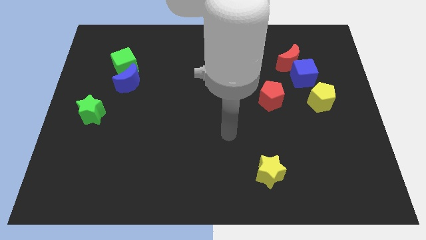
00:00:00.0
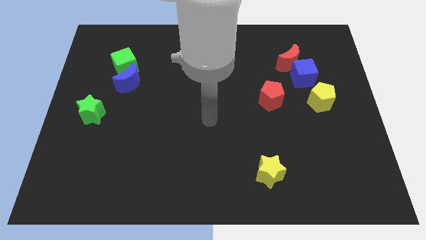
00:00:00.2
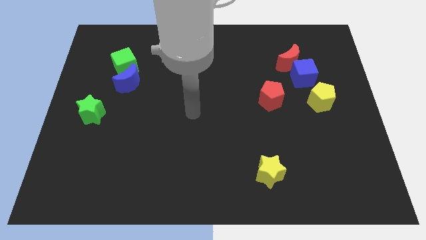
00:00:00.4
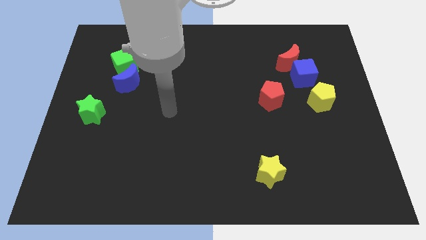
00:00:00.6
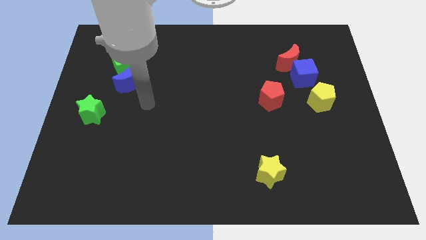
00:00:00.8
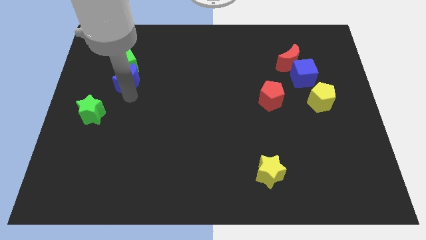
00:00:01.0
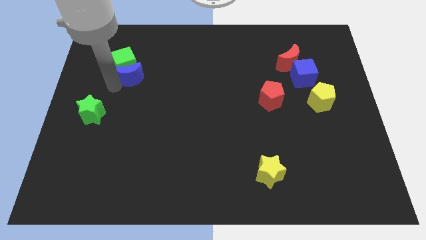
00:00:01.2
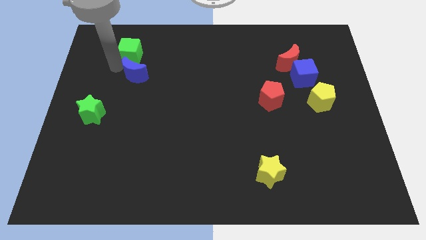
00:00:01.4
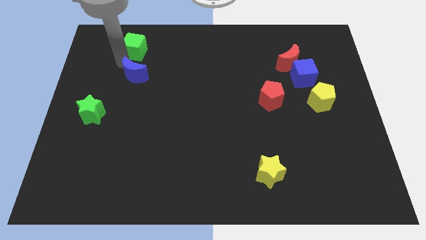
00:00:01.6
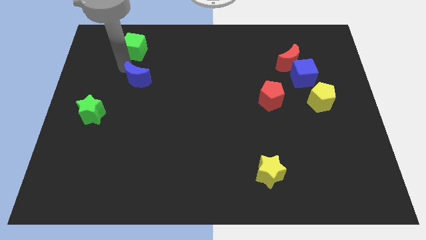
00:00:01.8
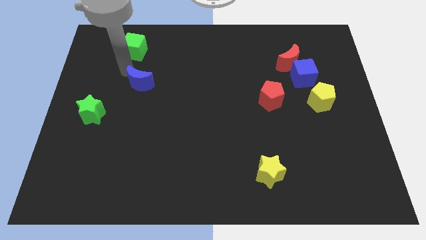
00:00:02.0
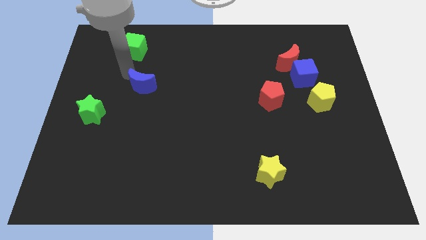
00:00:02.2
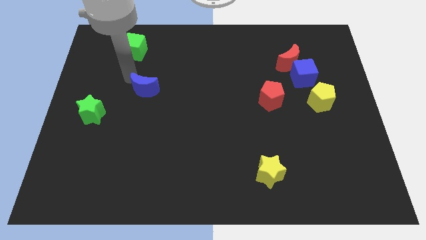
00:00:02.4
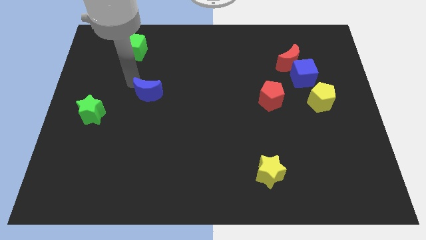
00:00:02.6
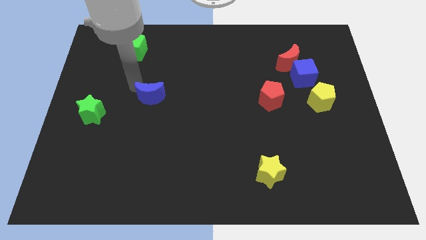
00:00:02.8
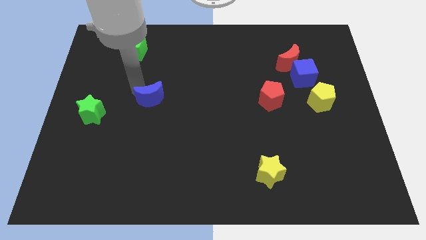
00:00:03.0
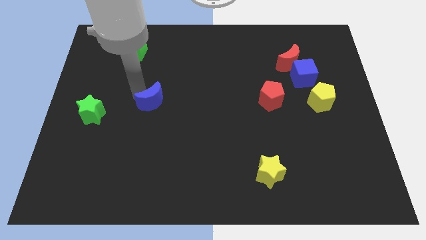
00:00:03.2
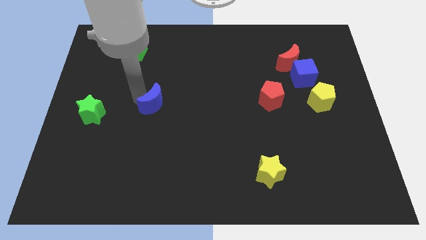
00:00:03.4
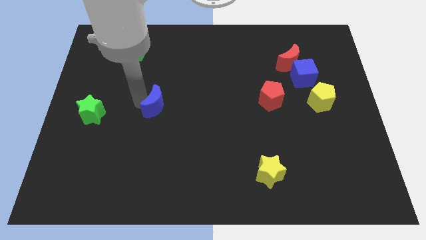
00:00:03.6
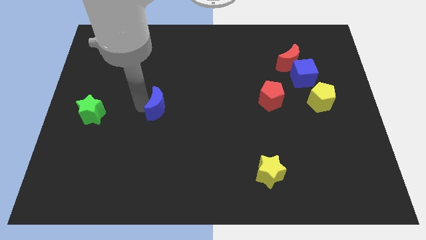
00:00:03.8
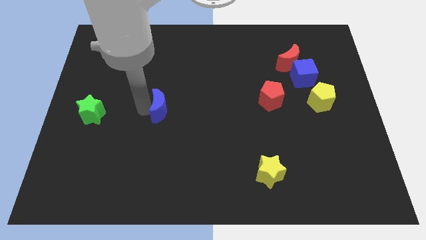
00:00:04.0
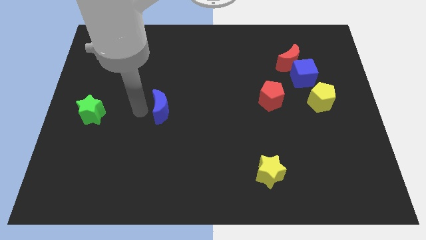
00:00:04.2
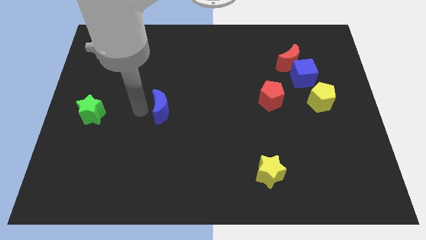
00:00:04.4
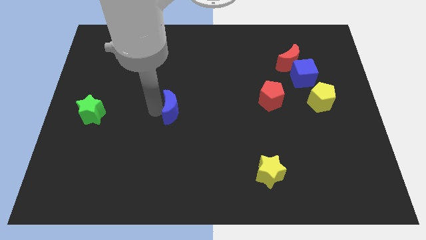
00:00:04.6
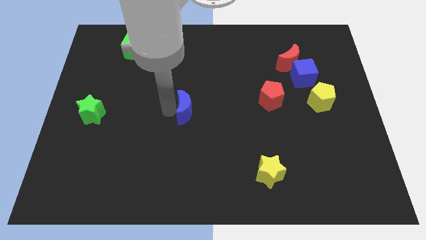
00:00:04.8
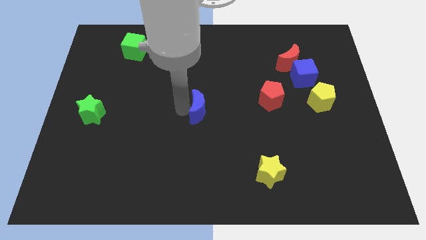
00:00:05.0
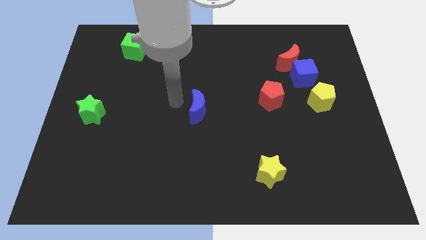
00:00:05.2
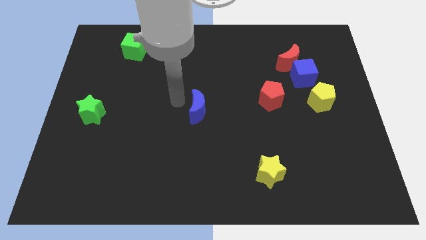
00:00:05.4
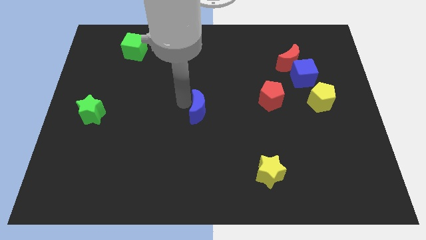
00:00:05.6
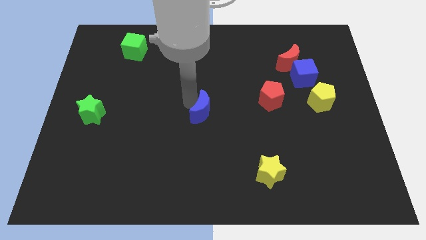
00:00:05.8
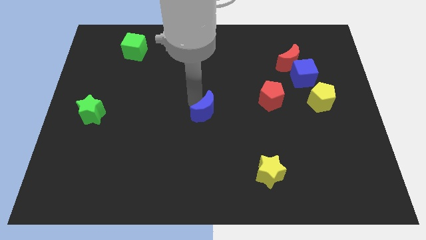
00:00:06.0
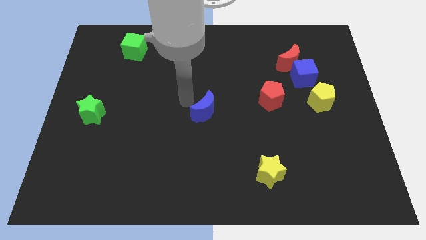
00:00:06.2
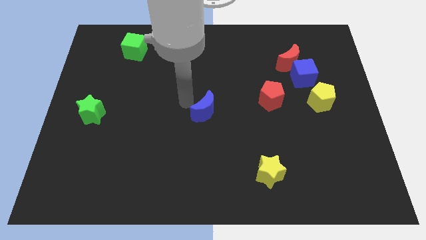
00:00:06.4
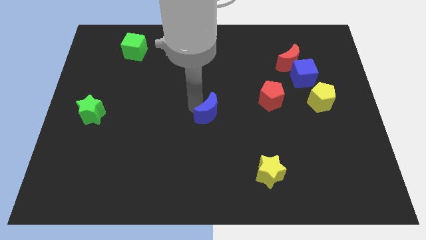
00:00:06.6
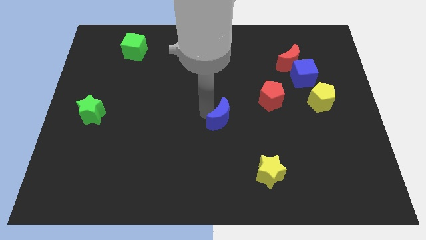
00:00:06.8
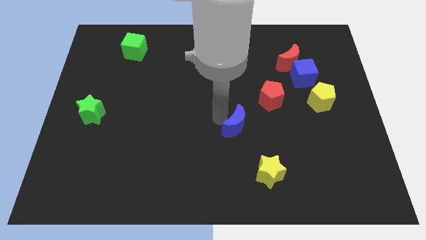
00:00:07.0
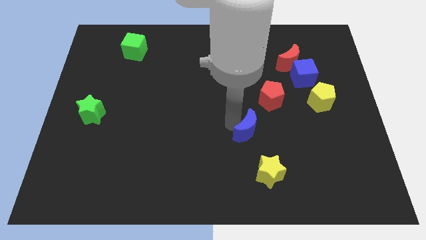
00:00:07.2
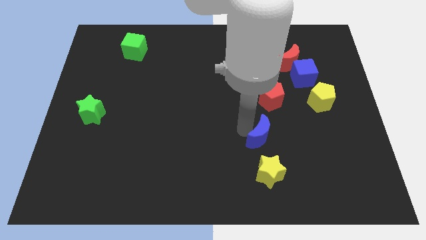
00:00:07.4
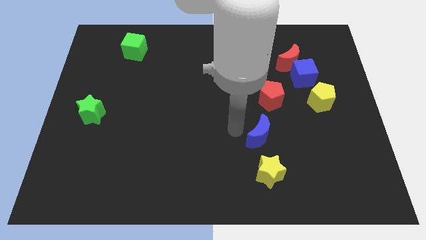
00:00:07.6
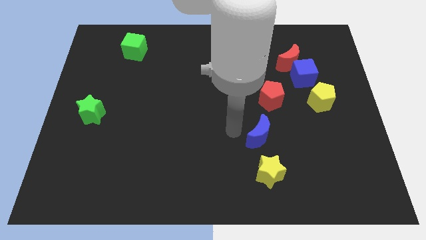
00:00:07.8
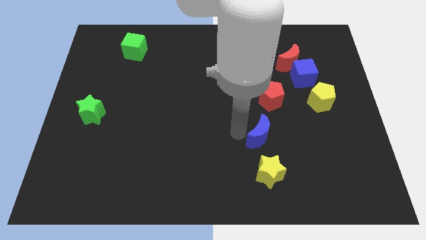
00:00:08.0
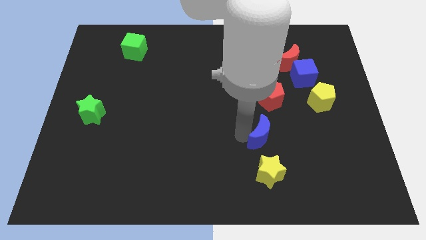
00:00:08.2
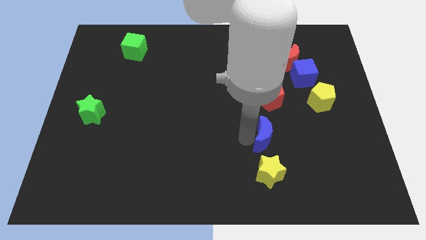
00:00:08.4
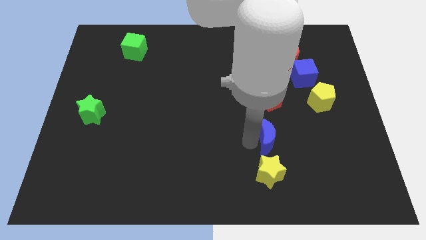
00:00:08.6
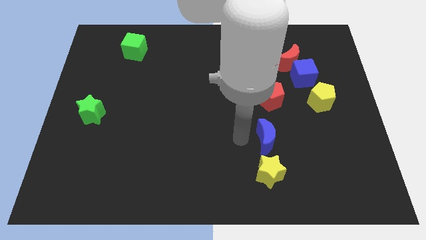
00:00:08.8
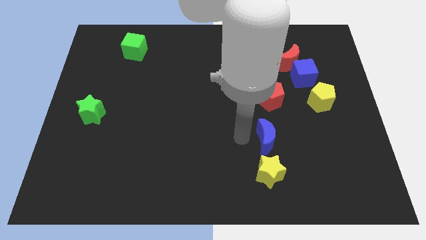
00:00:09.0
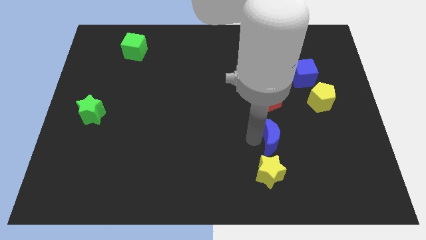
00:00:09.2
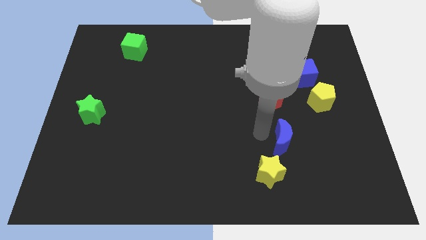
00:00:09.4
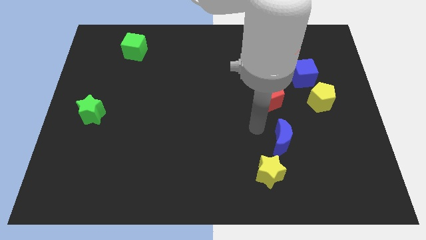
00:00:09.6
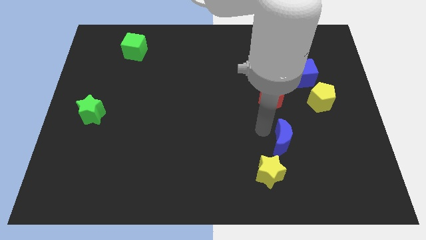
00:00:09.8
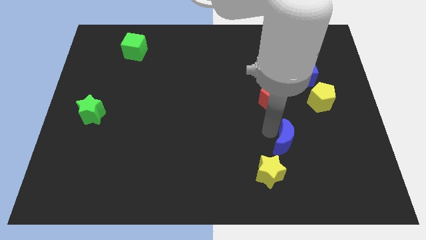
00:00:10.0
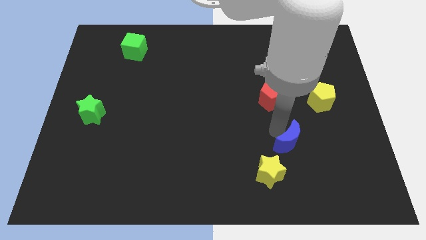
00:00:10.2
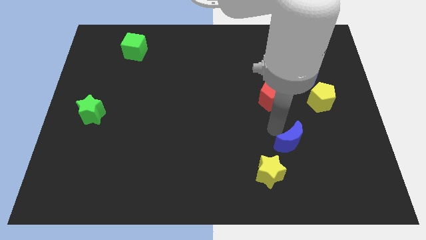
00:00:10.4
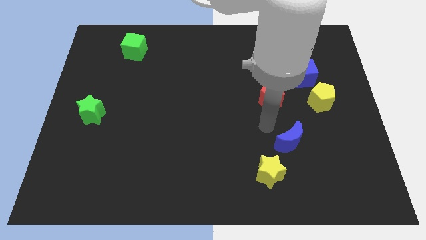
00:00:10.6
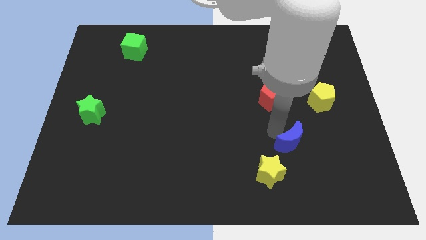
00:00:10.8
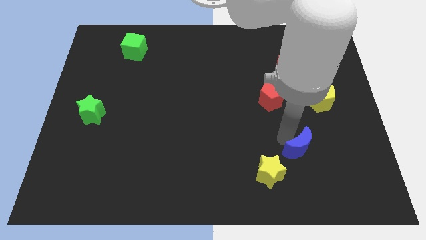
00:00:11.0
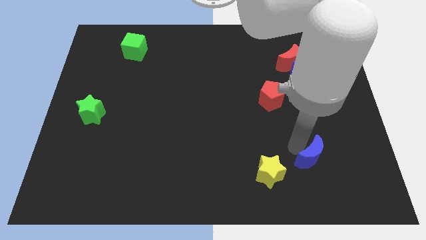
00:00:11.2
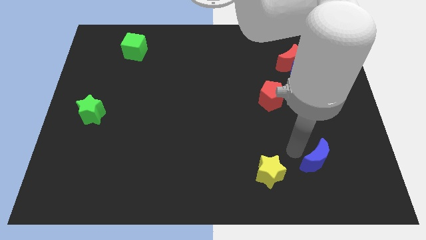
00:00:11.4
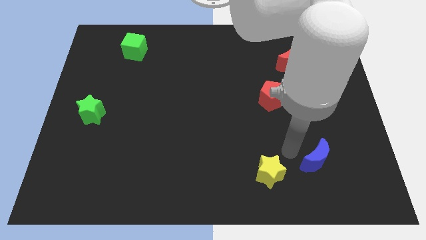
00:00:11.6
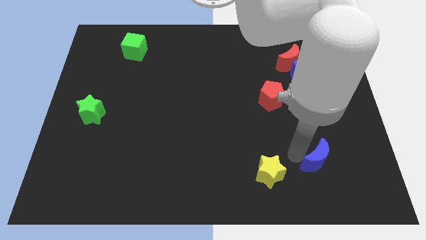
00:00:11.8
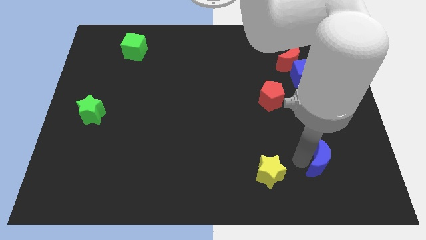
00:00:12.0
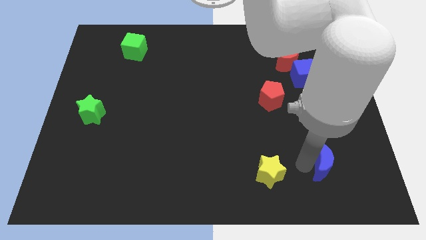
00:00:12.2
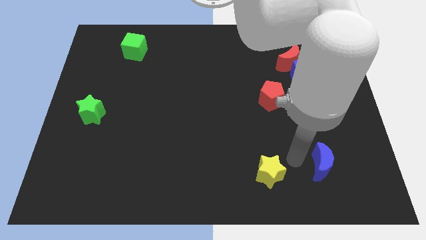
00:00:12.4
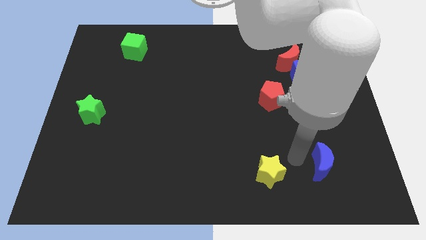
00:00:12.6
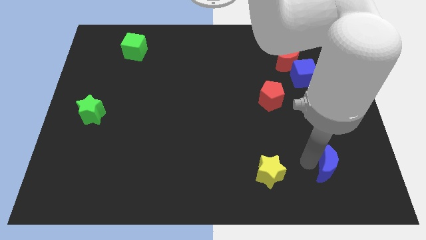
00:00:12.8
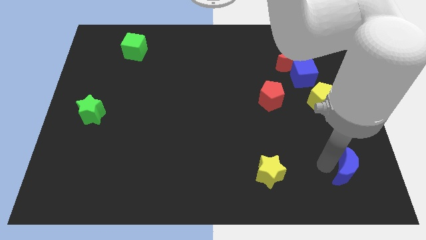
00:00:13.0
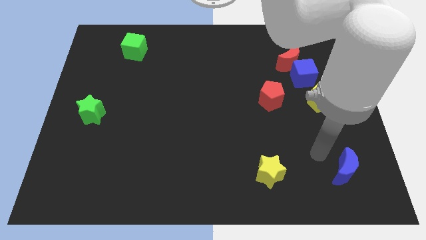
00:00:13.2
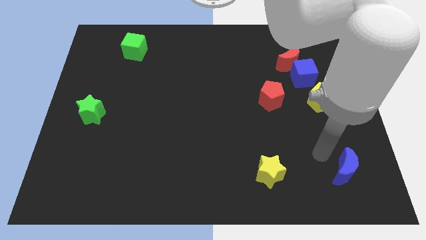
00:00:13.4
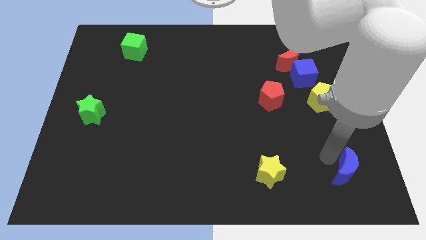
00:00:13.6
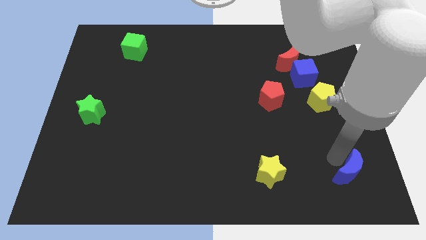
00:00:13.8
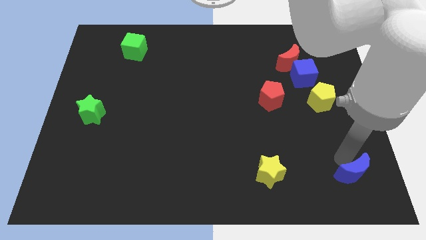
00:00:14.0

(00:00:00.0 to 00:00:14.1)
slide the blue moon to the bottom right corner

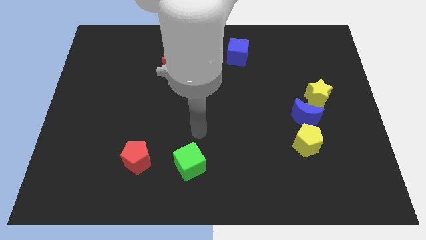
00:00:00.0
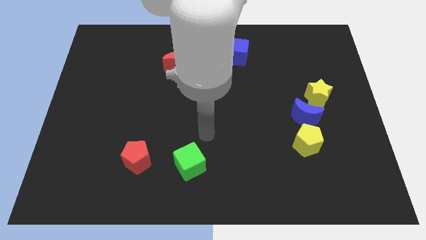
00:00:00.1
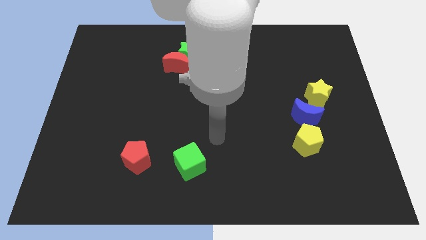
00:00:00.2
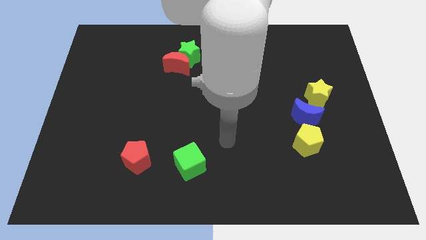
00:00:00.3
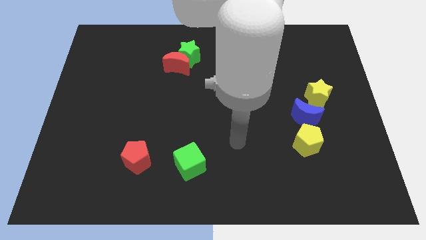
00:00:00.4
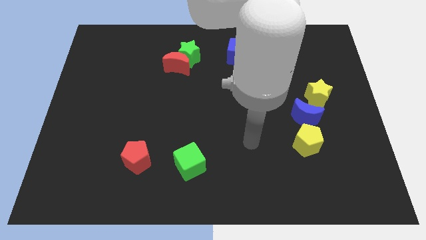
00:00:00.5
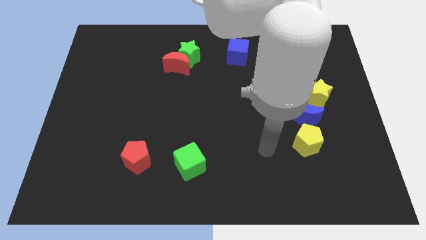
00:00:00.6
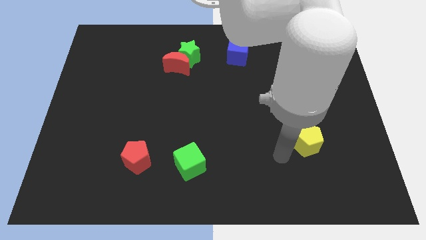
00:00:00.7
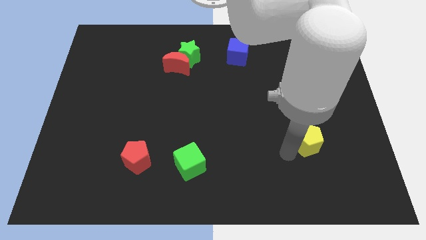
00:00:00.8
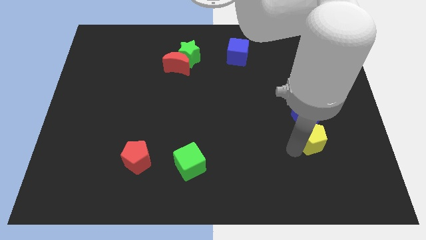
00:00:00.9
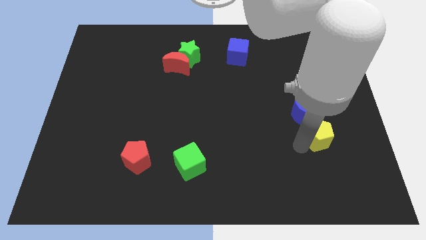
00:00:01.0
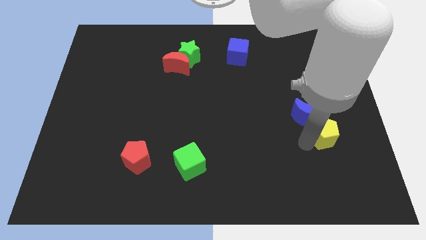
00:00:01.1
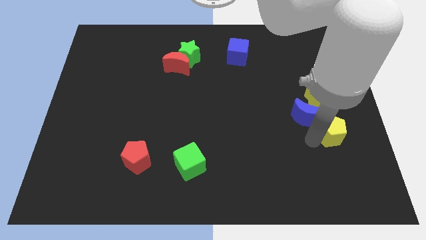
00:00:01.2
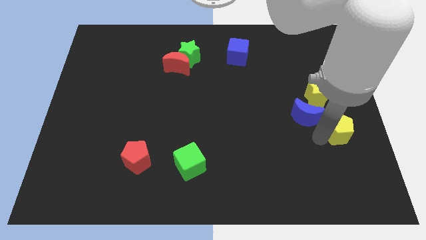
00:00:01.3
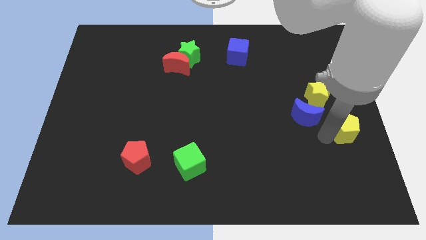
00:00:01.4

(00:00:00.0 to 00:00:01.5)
move the yellow pentagon to the center right
